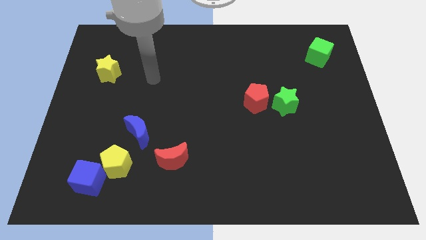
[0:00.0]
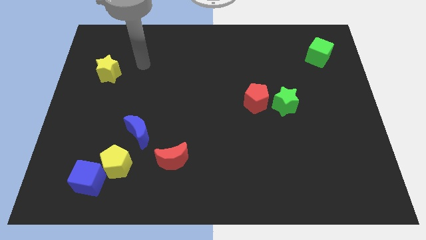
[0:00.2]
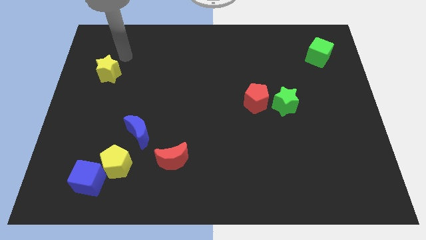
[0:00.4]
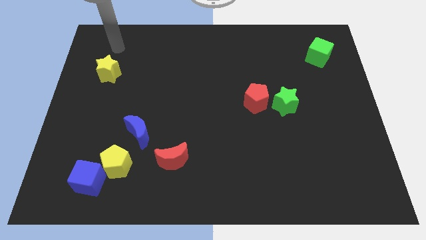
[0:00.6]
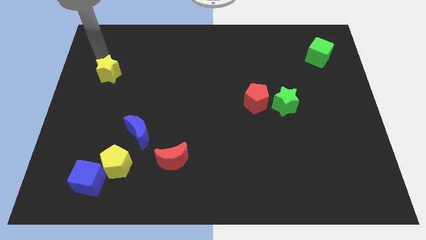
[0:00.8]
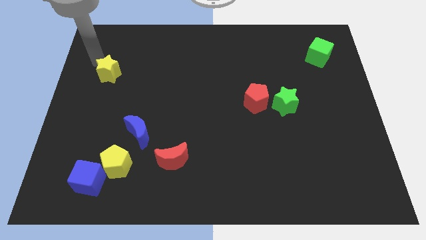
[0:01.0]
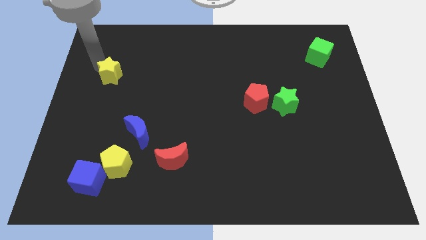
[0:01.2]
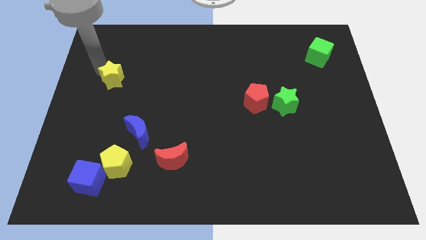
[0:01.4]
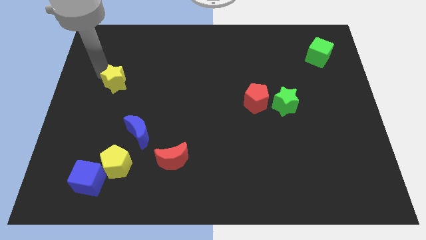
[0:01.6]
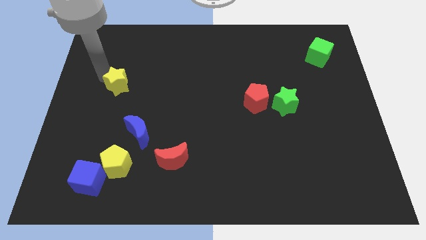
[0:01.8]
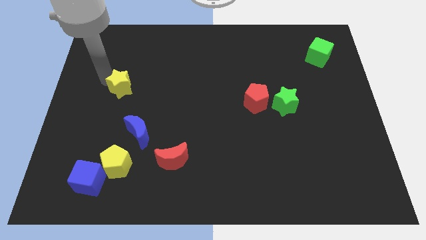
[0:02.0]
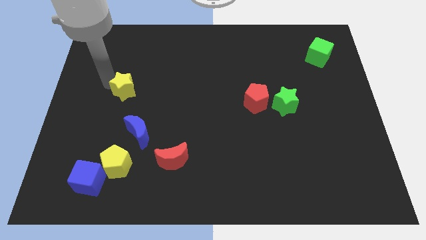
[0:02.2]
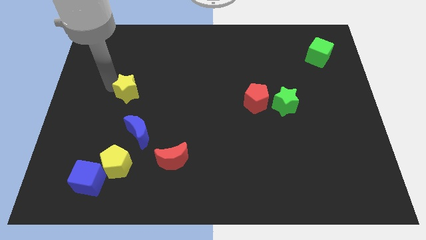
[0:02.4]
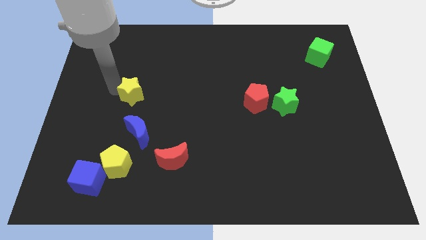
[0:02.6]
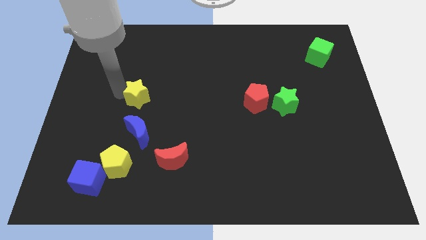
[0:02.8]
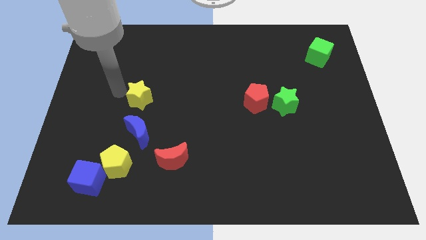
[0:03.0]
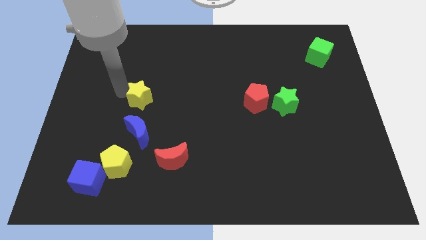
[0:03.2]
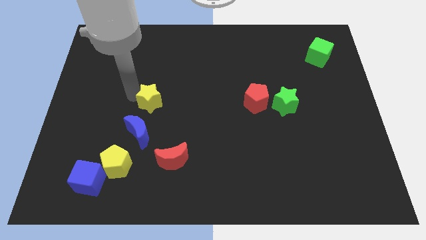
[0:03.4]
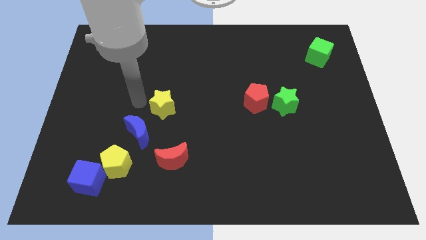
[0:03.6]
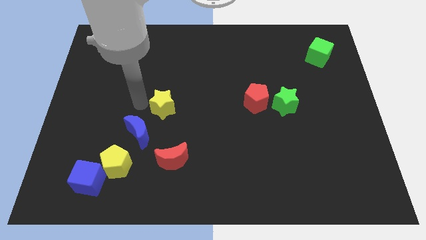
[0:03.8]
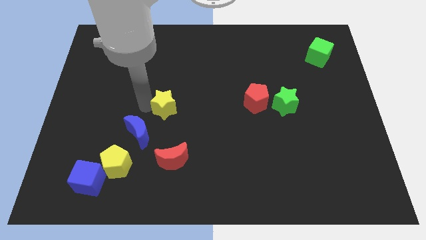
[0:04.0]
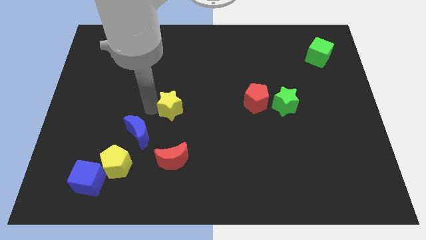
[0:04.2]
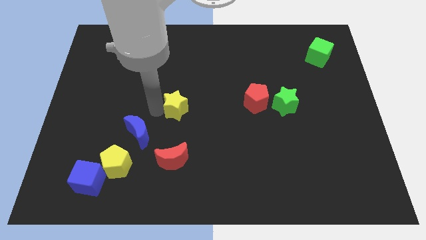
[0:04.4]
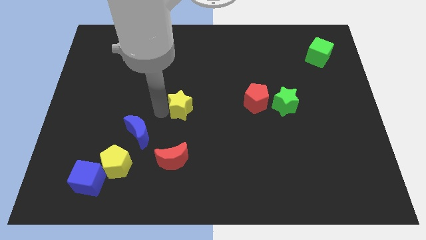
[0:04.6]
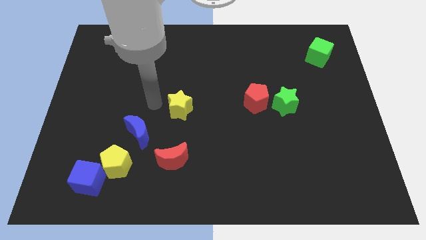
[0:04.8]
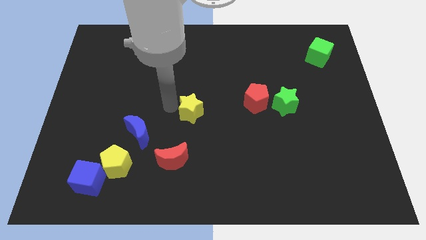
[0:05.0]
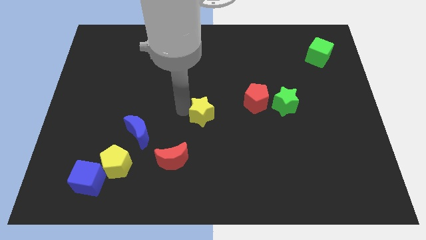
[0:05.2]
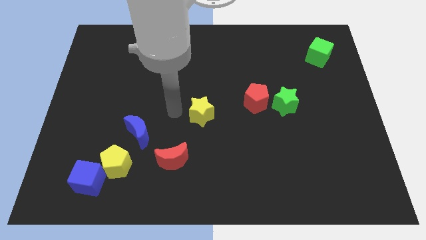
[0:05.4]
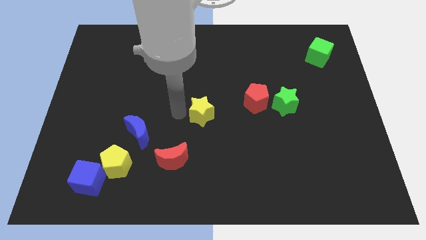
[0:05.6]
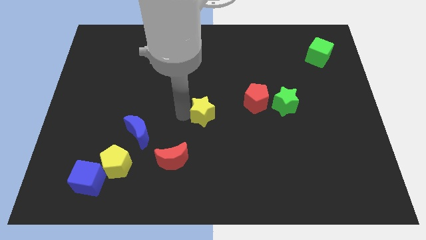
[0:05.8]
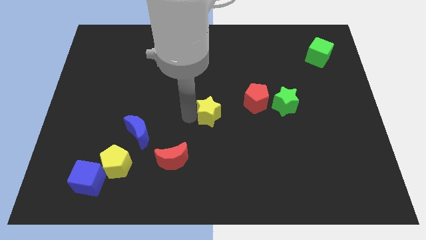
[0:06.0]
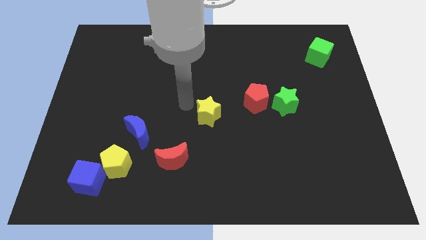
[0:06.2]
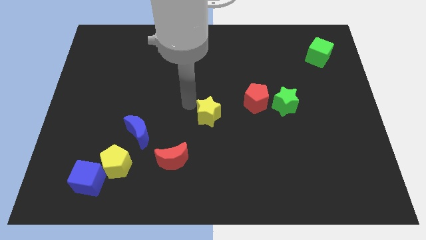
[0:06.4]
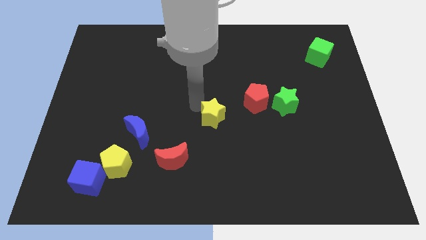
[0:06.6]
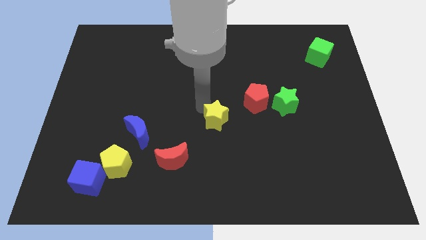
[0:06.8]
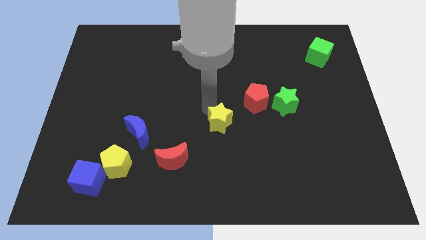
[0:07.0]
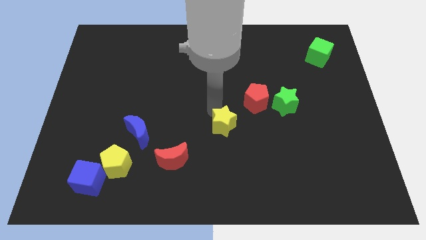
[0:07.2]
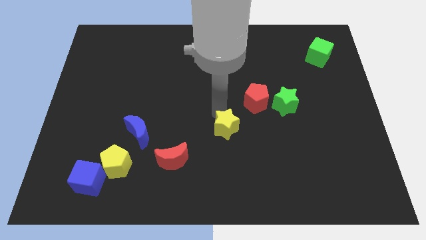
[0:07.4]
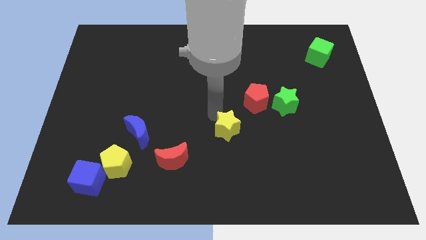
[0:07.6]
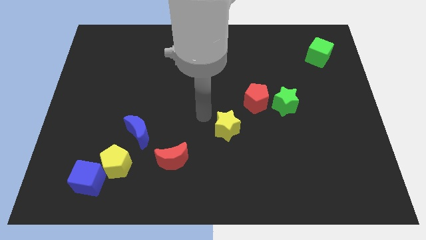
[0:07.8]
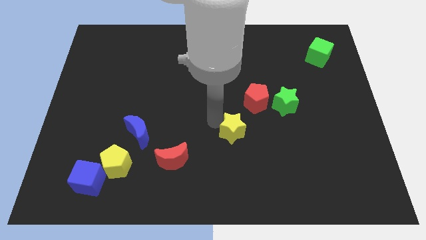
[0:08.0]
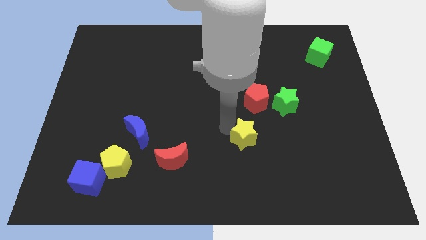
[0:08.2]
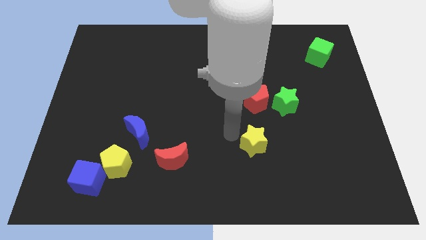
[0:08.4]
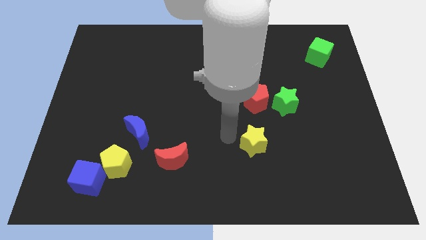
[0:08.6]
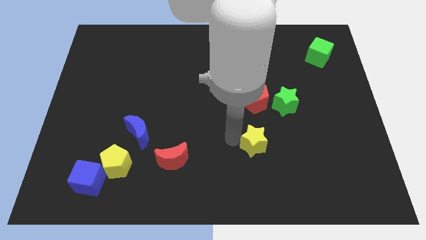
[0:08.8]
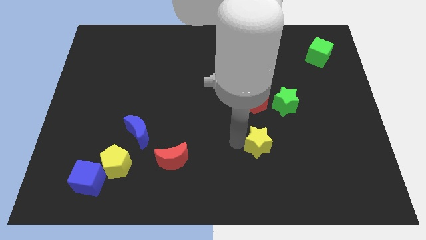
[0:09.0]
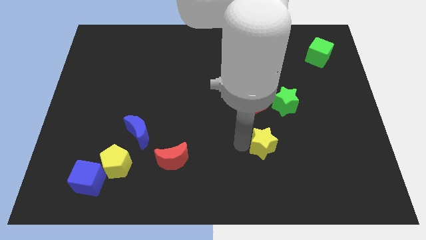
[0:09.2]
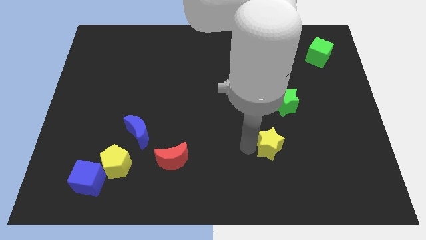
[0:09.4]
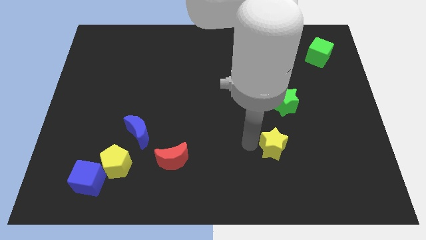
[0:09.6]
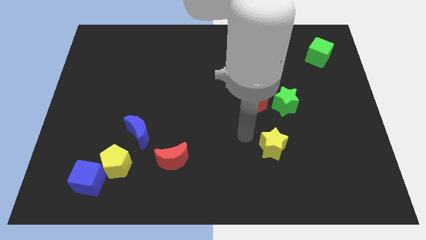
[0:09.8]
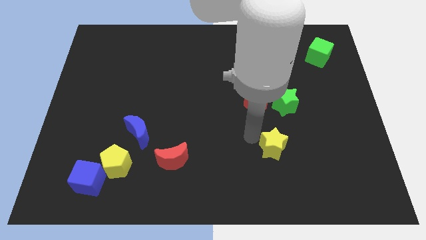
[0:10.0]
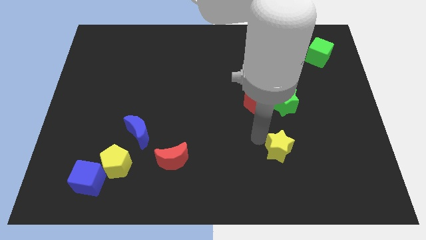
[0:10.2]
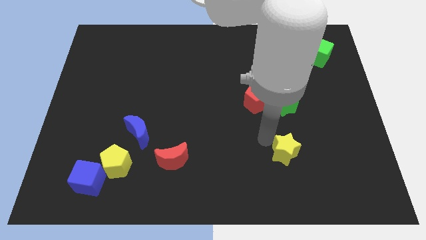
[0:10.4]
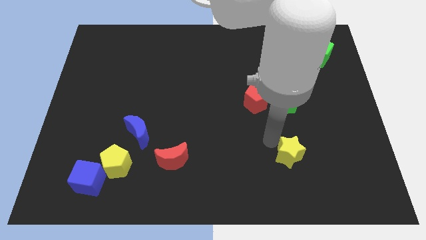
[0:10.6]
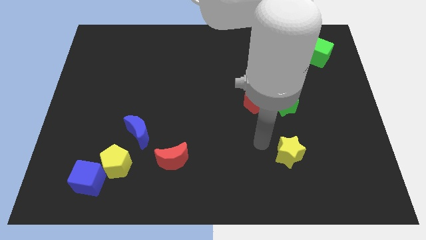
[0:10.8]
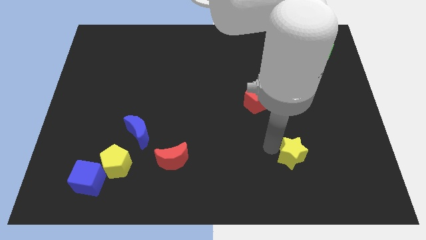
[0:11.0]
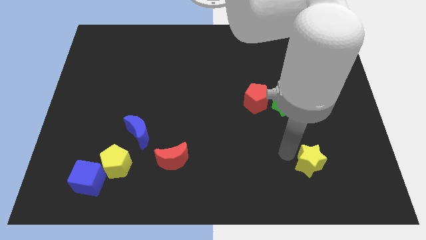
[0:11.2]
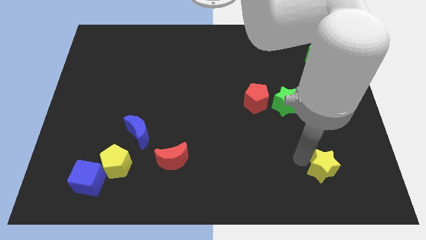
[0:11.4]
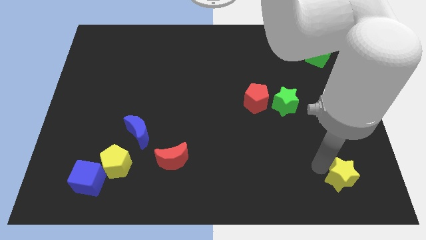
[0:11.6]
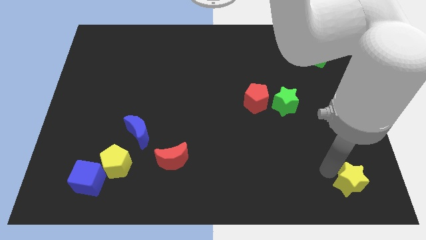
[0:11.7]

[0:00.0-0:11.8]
move the yellow star to the bottom right corner
